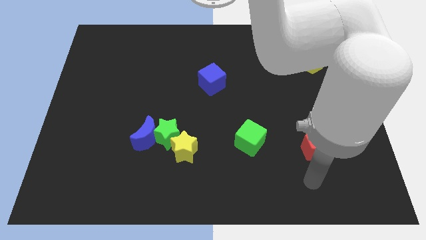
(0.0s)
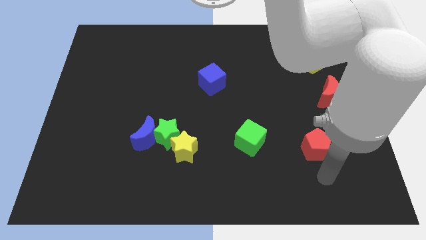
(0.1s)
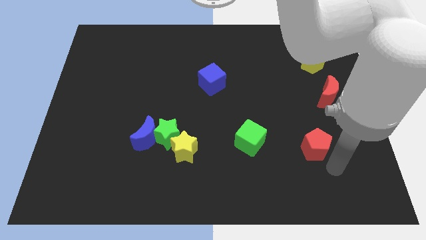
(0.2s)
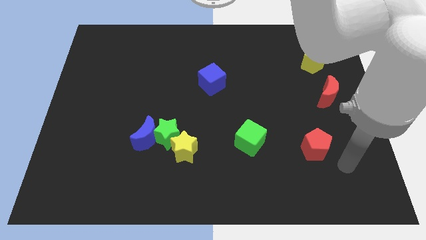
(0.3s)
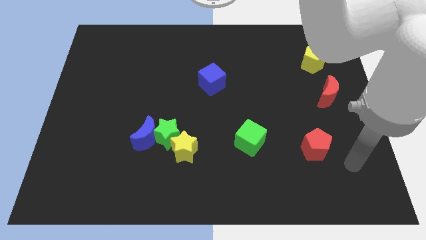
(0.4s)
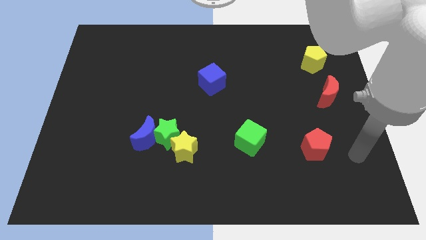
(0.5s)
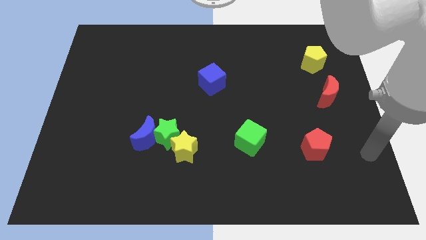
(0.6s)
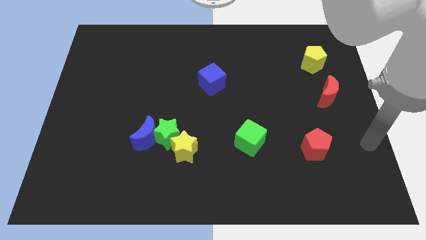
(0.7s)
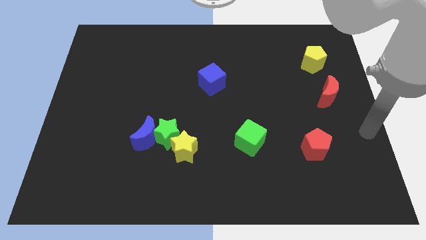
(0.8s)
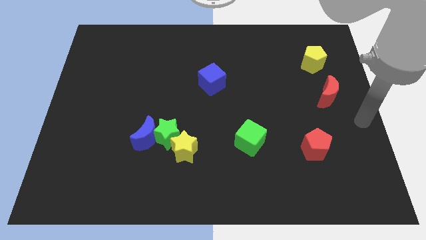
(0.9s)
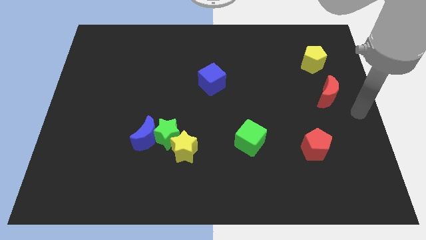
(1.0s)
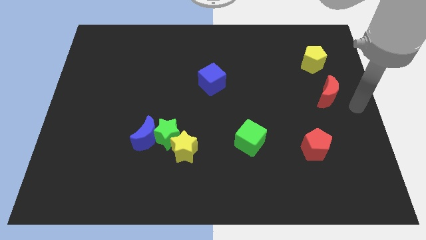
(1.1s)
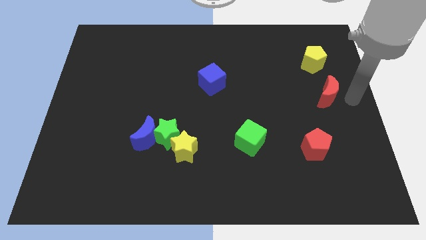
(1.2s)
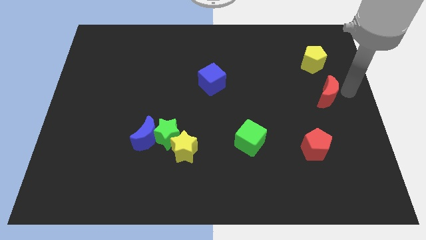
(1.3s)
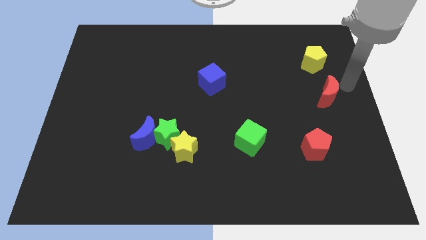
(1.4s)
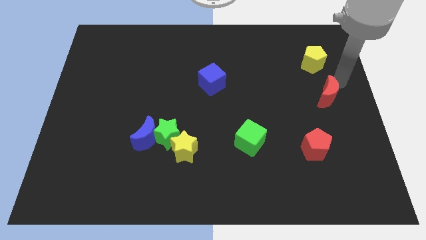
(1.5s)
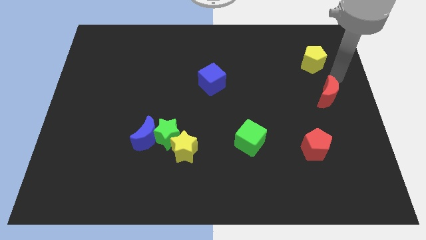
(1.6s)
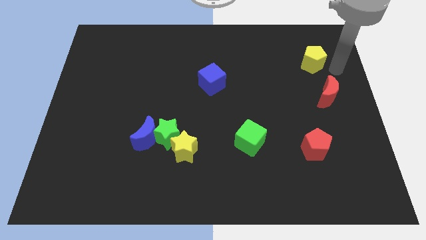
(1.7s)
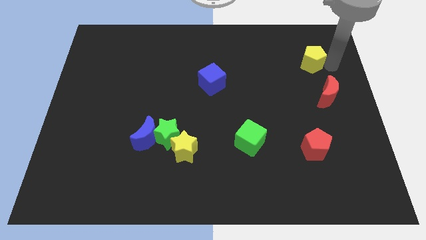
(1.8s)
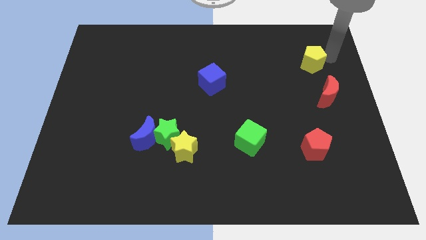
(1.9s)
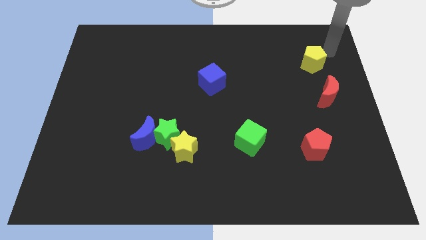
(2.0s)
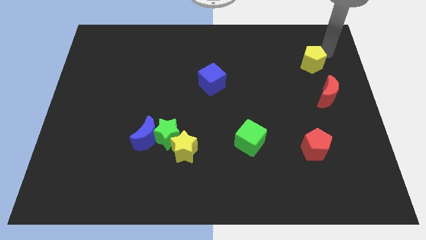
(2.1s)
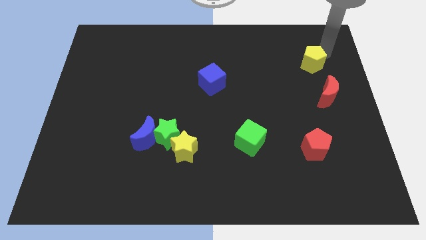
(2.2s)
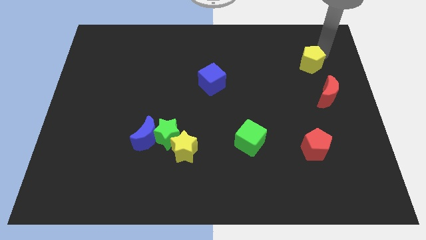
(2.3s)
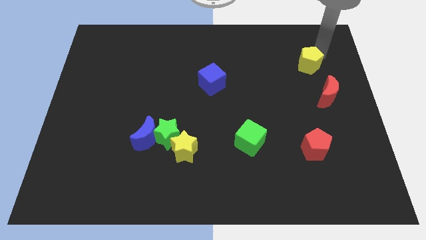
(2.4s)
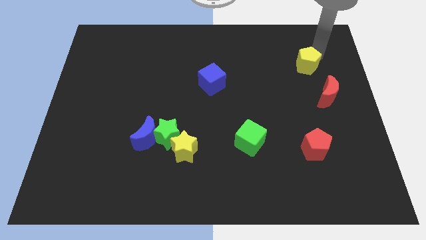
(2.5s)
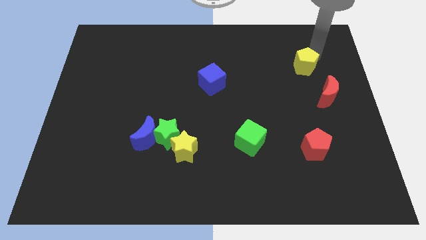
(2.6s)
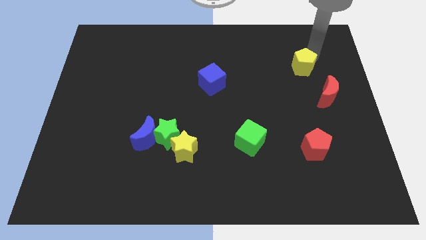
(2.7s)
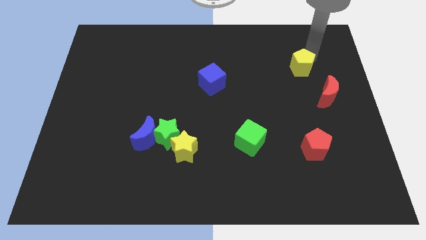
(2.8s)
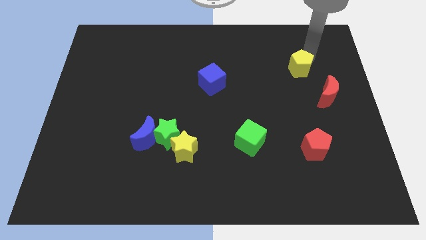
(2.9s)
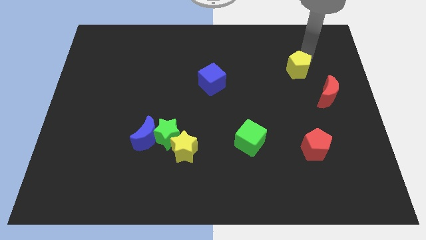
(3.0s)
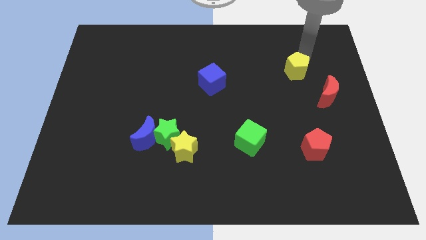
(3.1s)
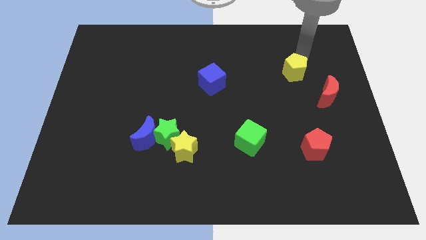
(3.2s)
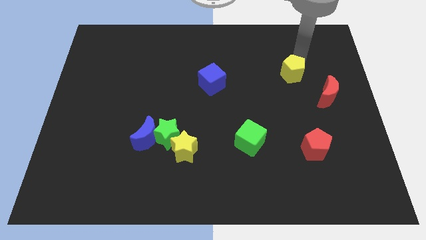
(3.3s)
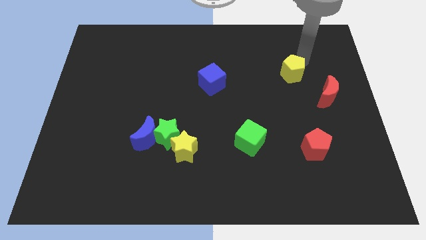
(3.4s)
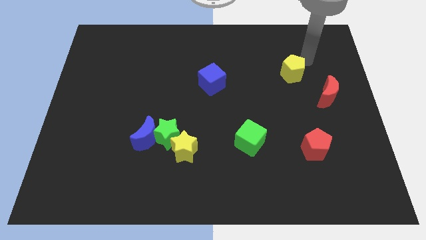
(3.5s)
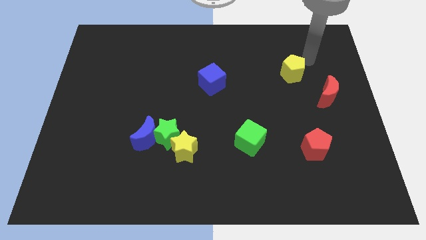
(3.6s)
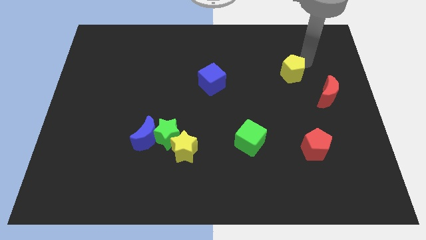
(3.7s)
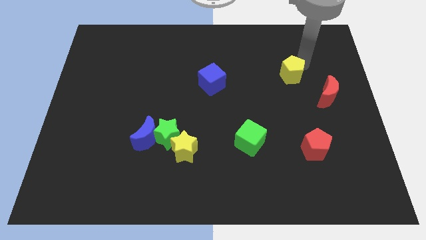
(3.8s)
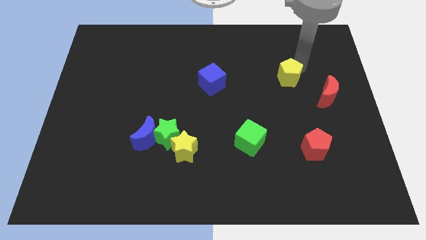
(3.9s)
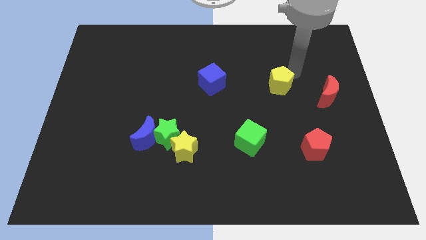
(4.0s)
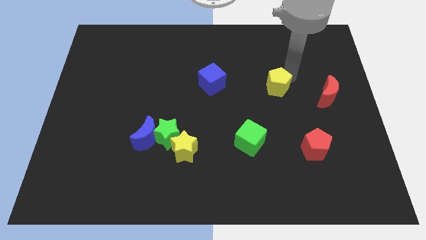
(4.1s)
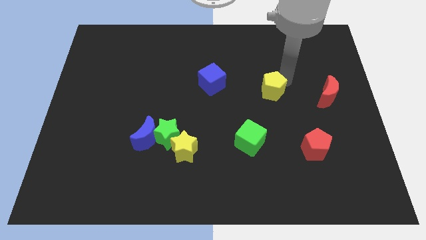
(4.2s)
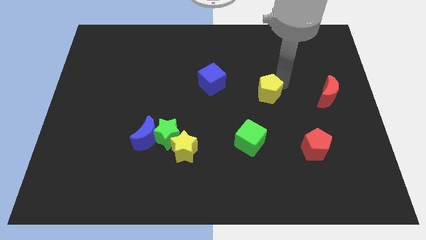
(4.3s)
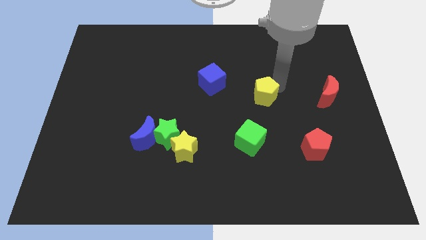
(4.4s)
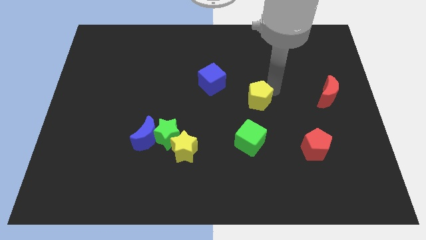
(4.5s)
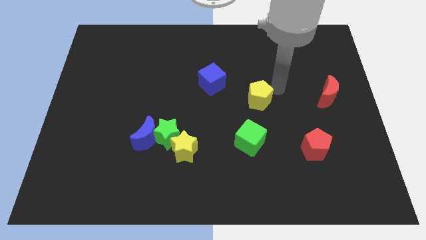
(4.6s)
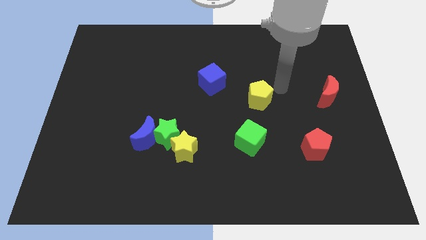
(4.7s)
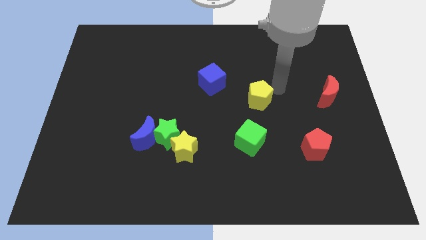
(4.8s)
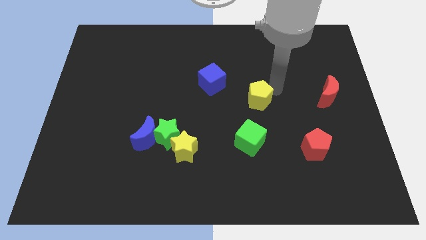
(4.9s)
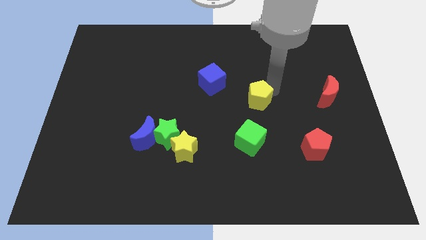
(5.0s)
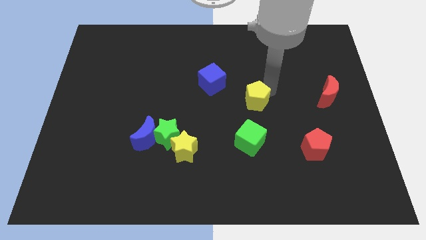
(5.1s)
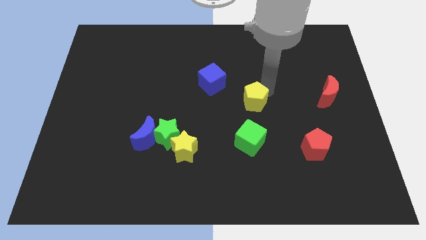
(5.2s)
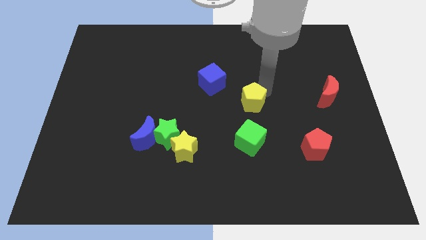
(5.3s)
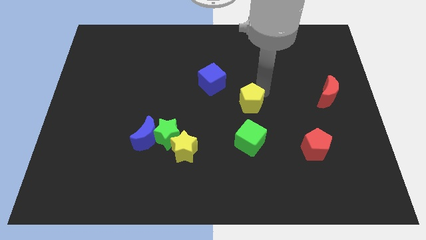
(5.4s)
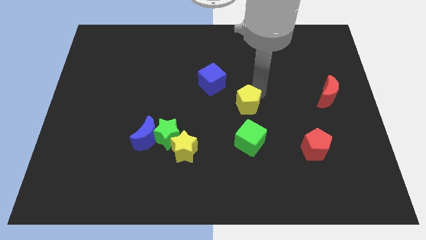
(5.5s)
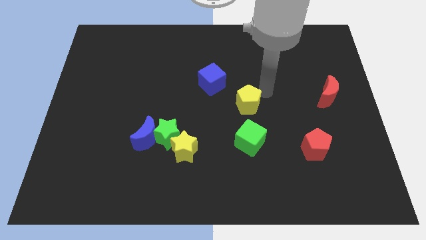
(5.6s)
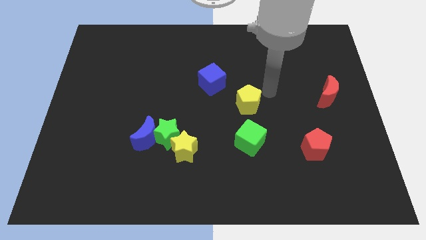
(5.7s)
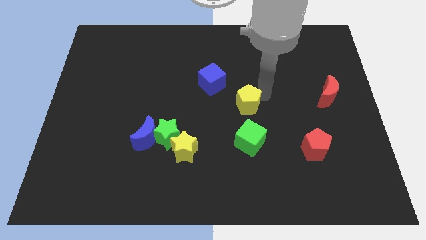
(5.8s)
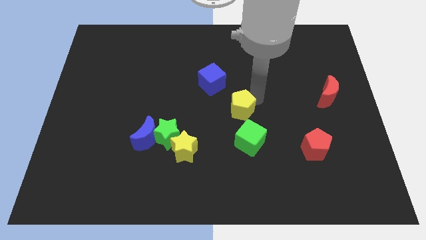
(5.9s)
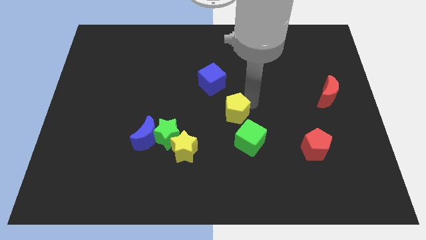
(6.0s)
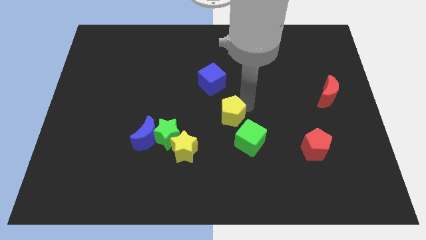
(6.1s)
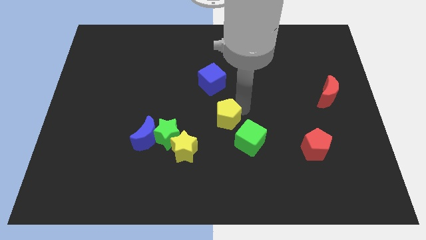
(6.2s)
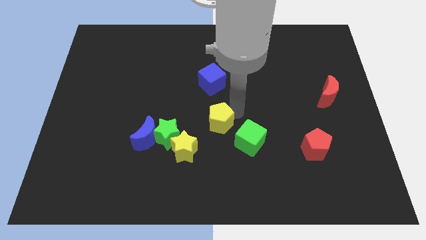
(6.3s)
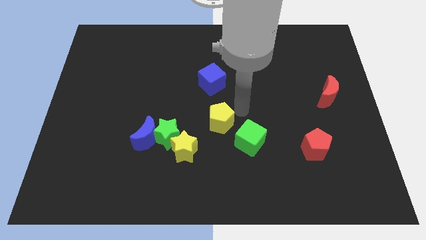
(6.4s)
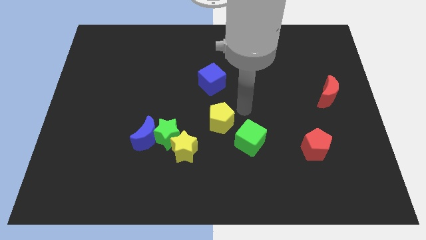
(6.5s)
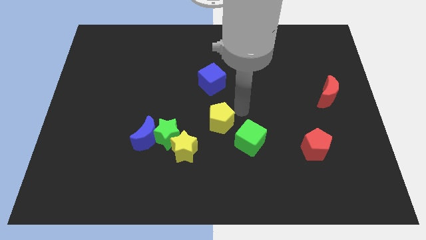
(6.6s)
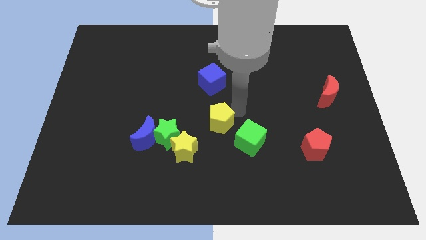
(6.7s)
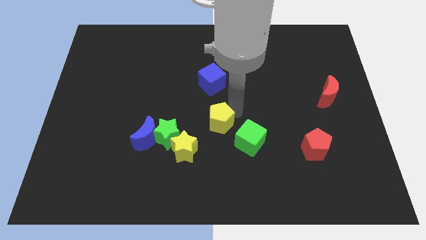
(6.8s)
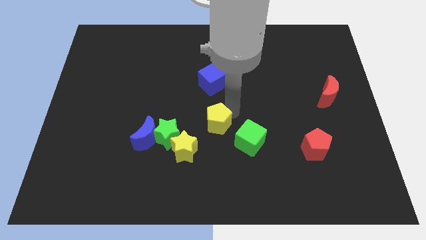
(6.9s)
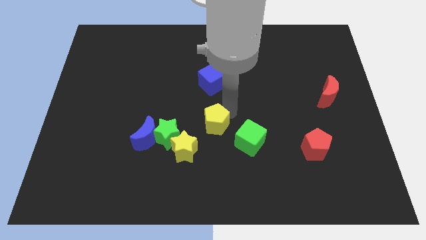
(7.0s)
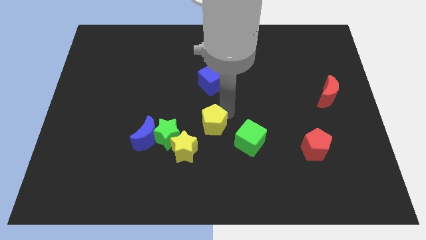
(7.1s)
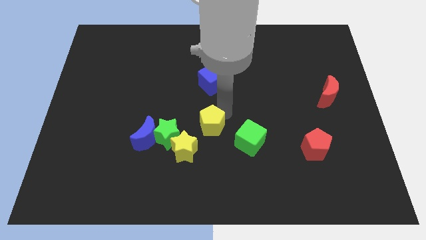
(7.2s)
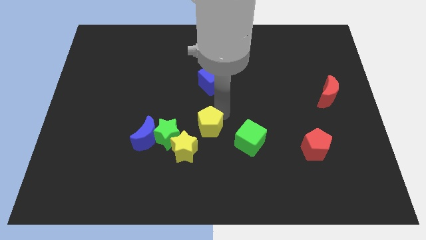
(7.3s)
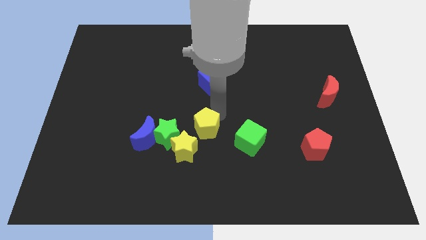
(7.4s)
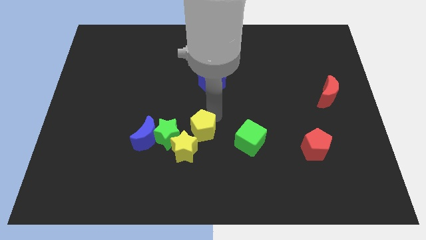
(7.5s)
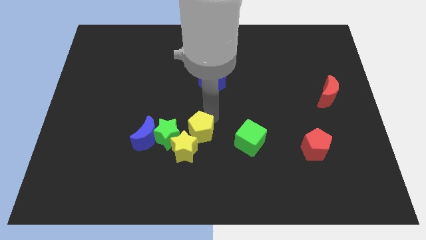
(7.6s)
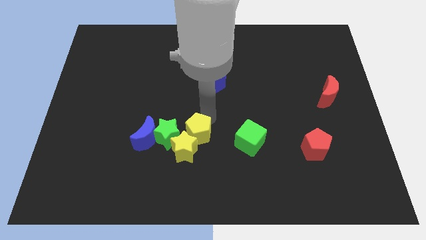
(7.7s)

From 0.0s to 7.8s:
put the yellow pentagon towards the yellow star
